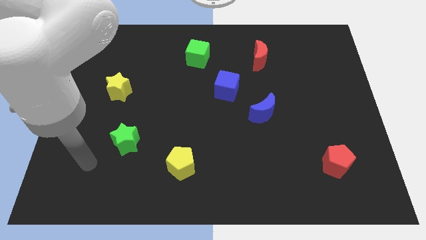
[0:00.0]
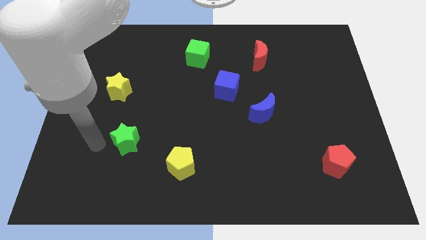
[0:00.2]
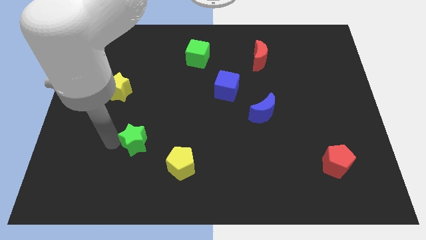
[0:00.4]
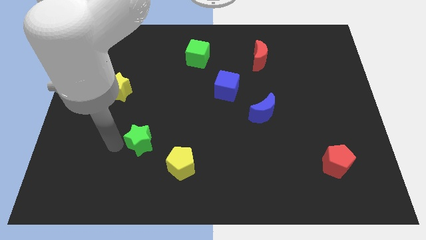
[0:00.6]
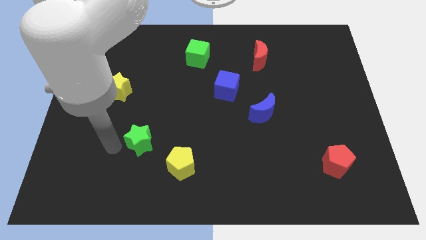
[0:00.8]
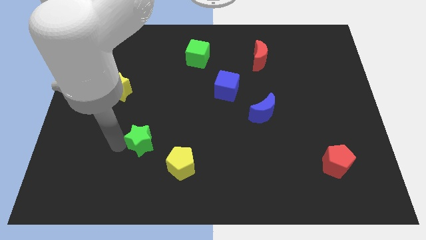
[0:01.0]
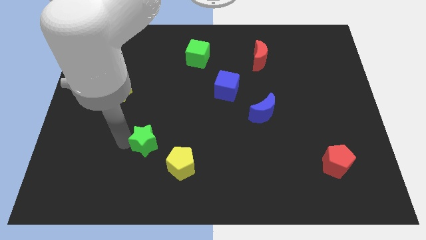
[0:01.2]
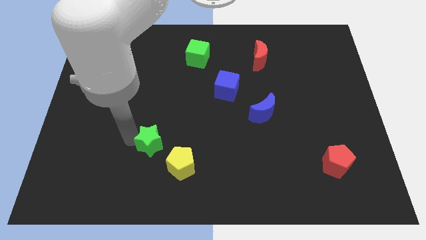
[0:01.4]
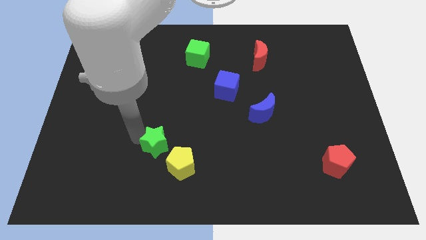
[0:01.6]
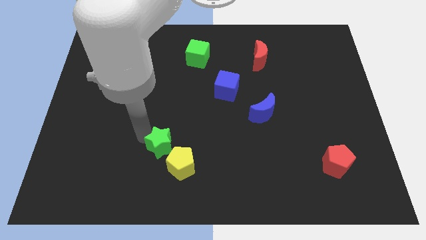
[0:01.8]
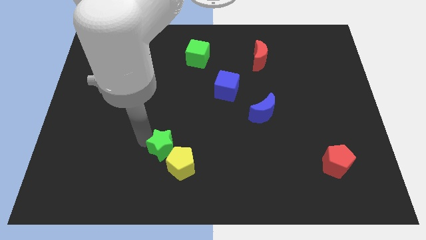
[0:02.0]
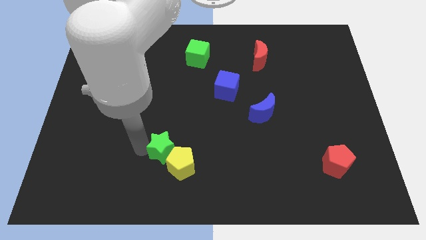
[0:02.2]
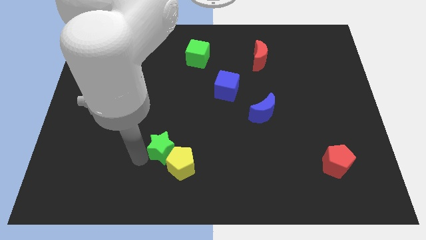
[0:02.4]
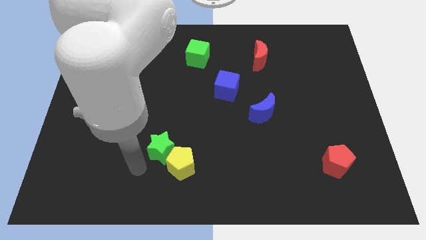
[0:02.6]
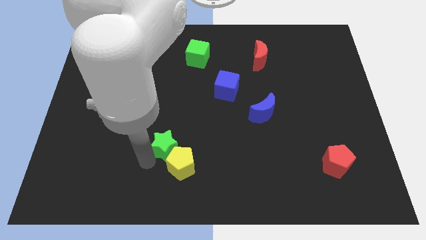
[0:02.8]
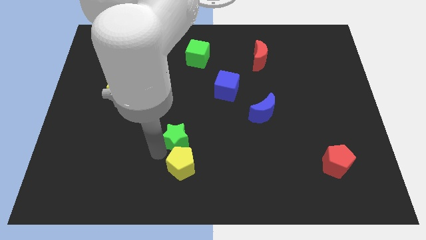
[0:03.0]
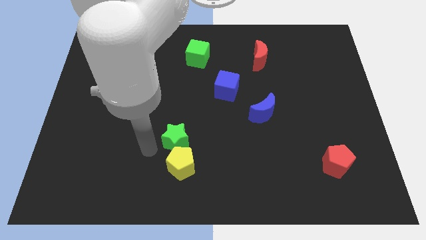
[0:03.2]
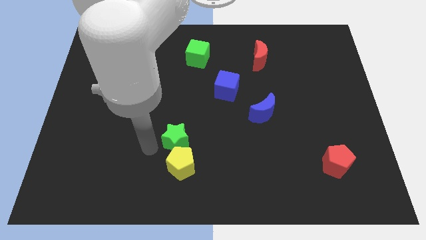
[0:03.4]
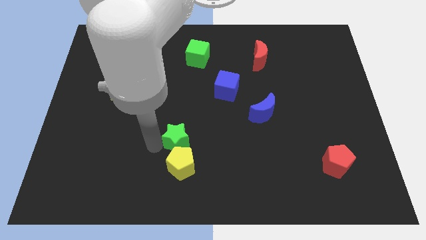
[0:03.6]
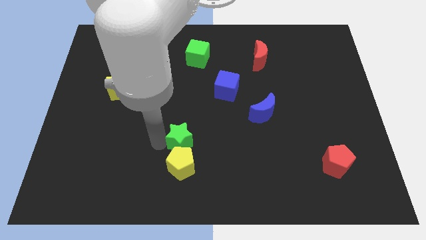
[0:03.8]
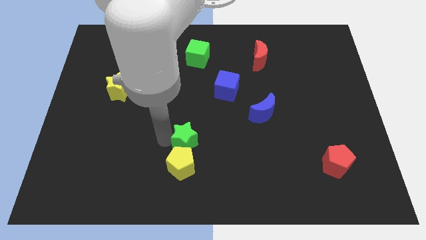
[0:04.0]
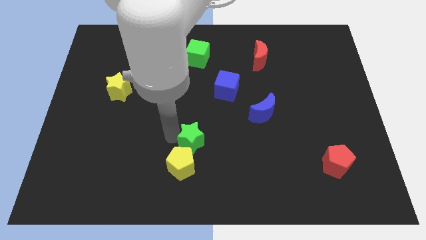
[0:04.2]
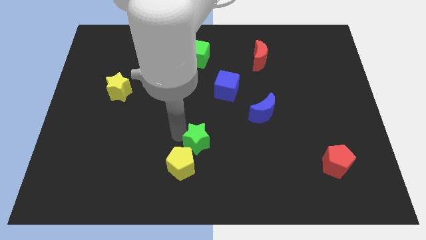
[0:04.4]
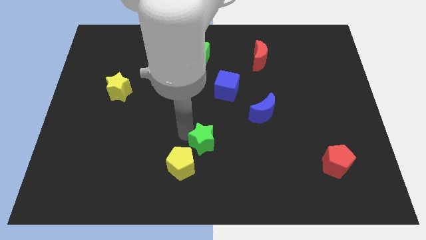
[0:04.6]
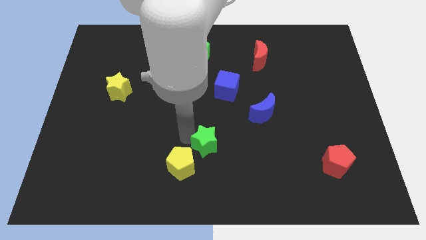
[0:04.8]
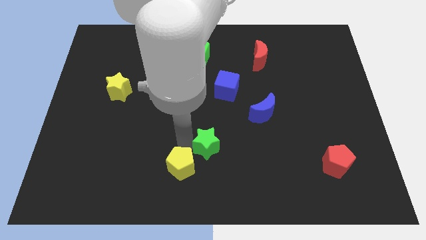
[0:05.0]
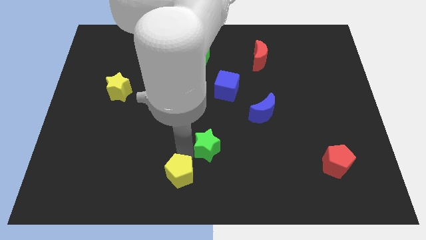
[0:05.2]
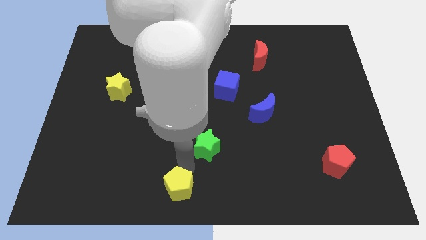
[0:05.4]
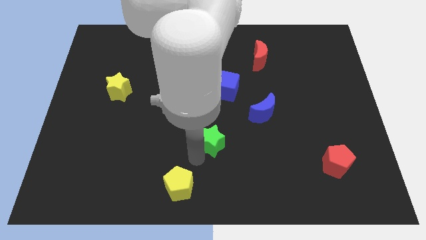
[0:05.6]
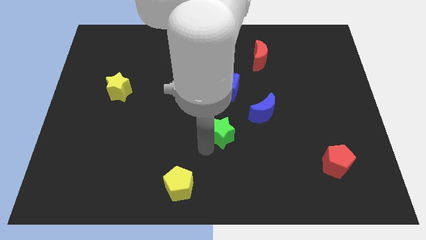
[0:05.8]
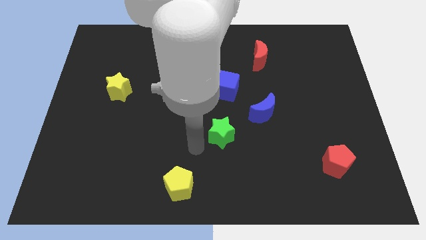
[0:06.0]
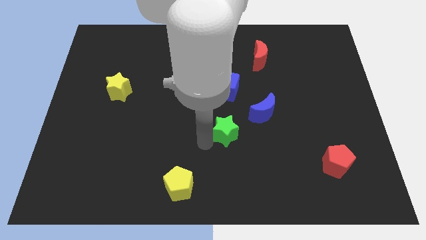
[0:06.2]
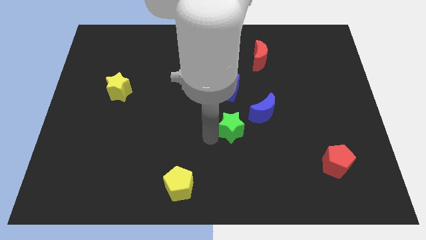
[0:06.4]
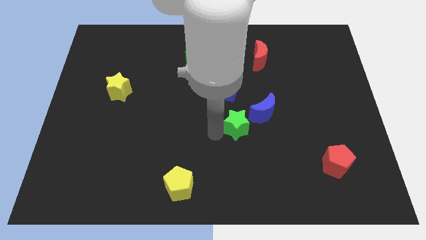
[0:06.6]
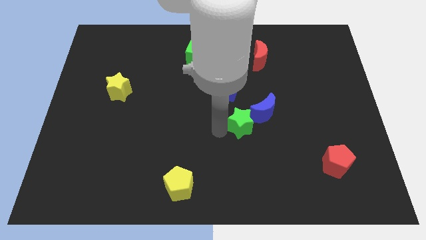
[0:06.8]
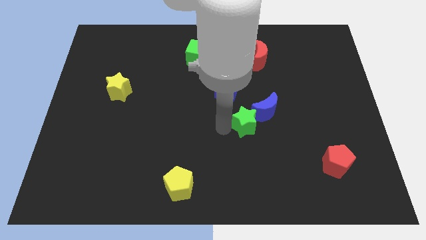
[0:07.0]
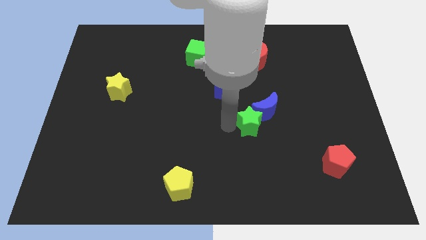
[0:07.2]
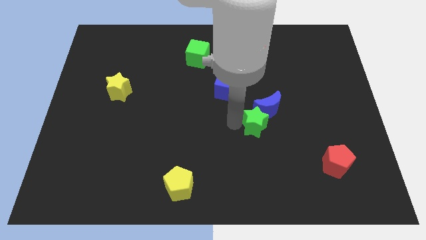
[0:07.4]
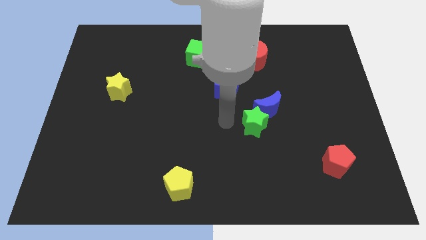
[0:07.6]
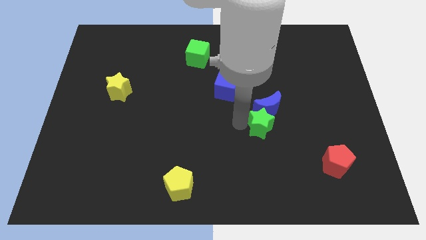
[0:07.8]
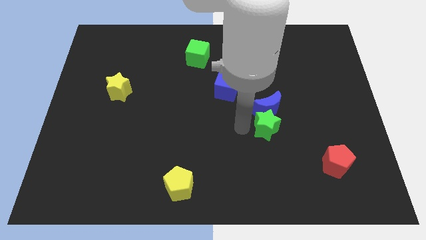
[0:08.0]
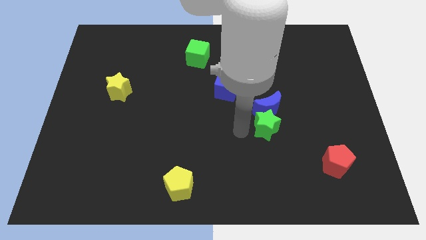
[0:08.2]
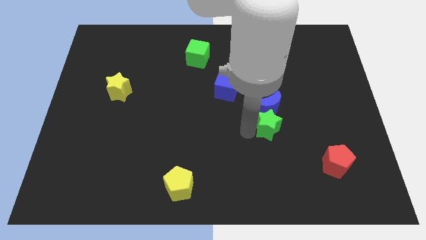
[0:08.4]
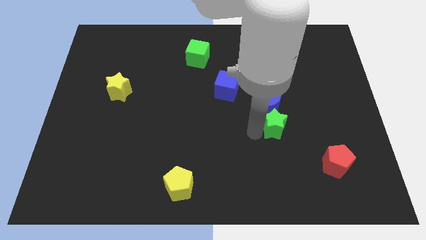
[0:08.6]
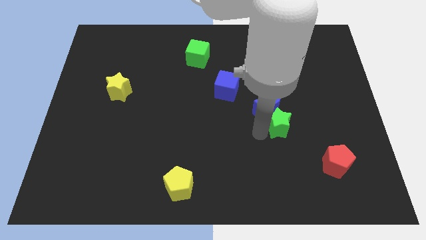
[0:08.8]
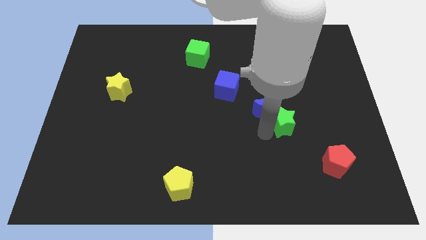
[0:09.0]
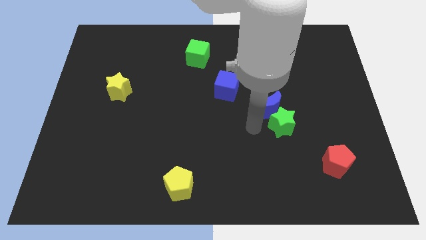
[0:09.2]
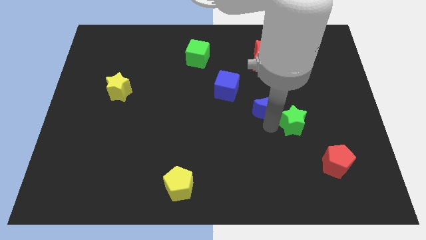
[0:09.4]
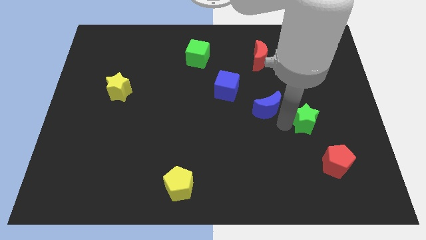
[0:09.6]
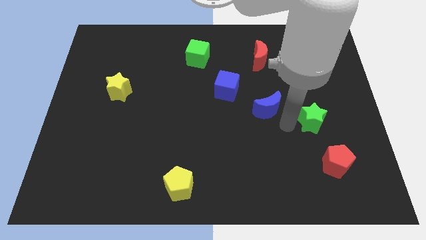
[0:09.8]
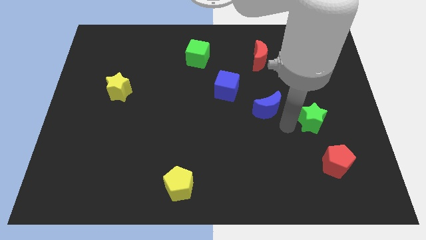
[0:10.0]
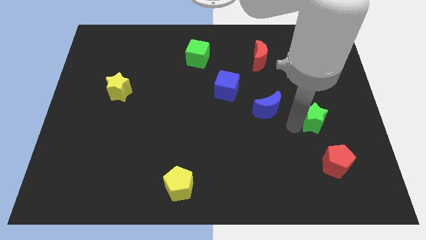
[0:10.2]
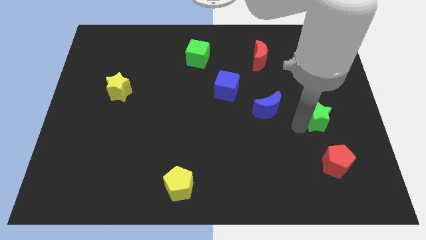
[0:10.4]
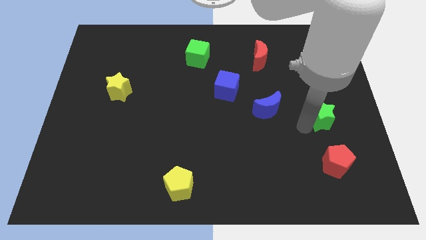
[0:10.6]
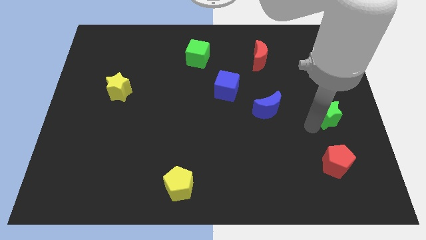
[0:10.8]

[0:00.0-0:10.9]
slide the green star to the right side

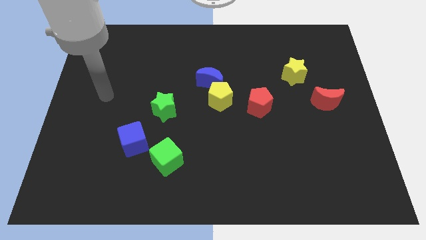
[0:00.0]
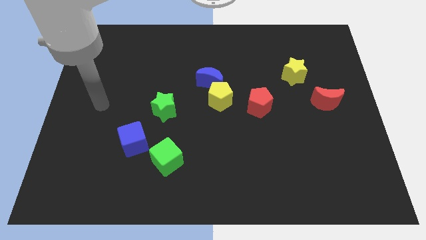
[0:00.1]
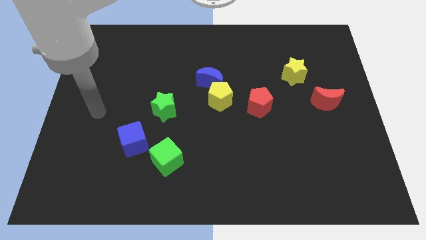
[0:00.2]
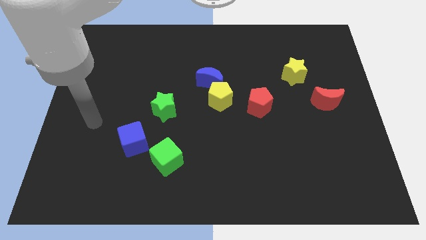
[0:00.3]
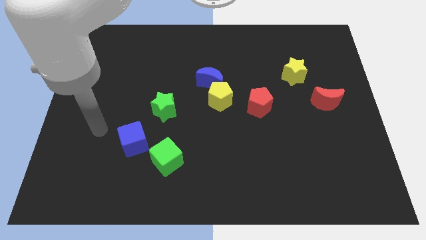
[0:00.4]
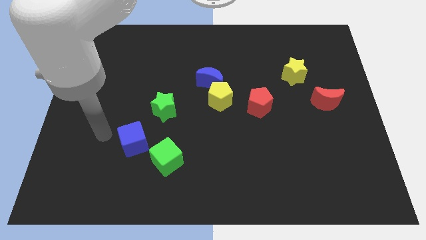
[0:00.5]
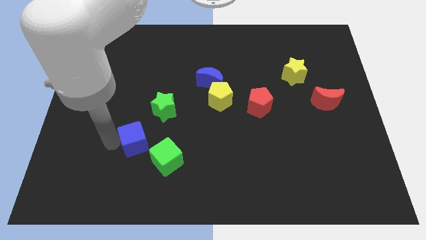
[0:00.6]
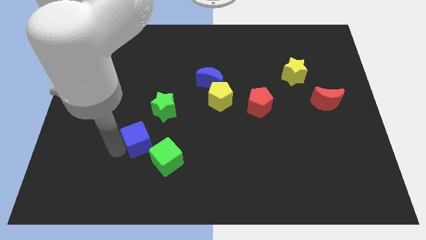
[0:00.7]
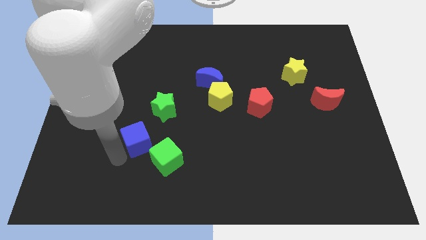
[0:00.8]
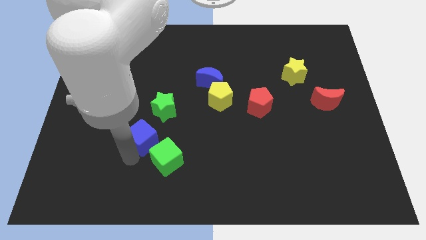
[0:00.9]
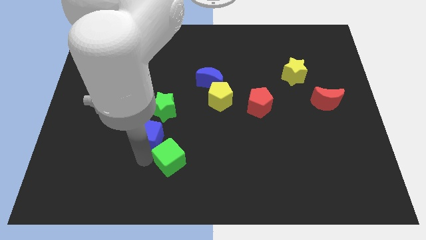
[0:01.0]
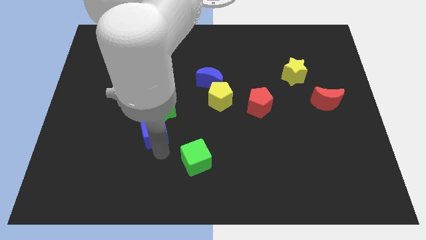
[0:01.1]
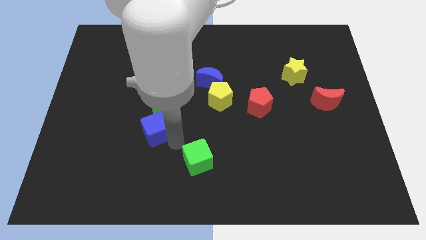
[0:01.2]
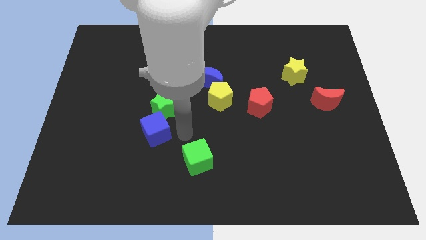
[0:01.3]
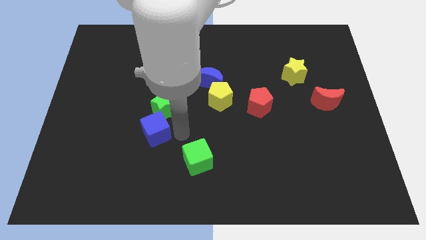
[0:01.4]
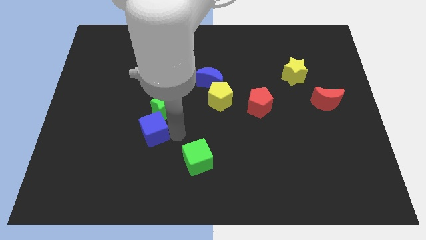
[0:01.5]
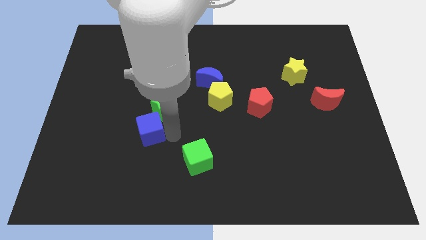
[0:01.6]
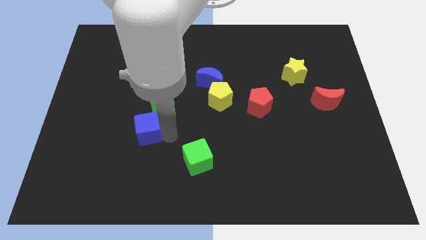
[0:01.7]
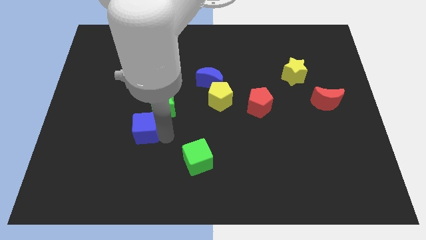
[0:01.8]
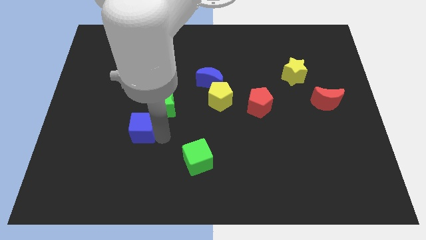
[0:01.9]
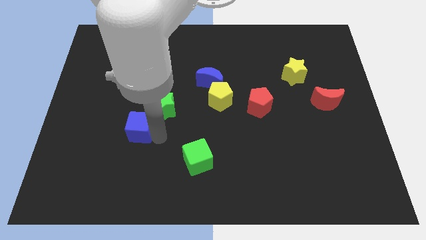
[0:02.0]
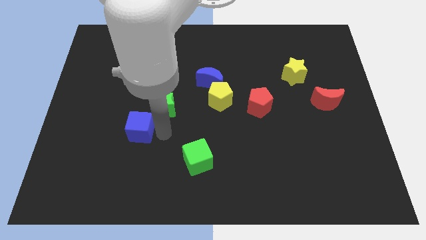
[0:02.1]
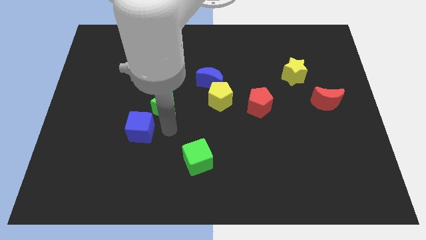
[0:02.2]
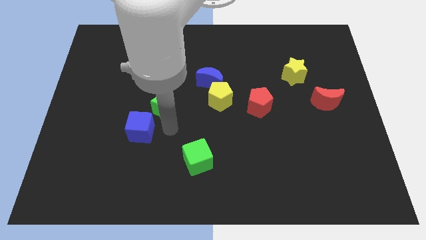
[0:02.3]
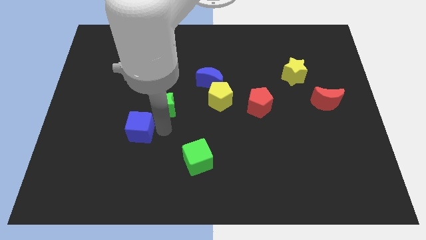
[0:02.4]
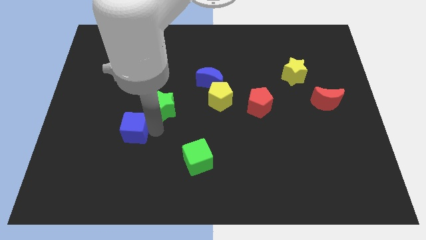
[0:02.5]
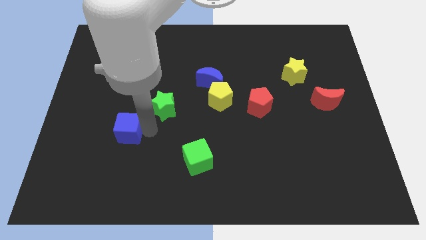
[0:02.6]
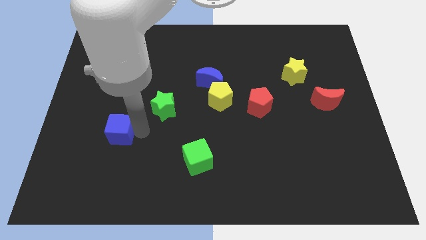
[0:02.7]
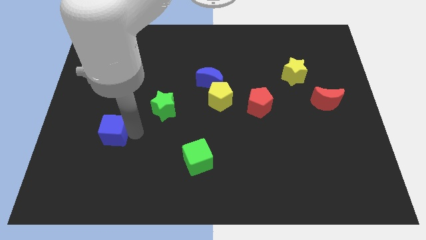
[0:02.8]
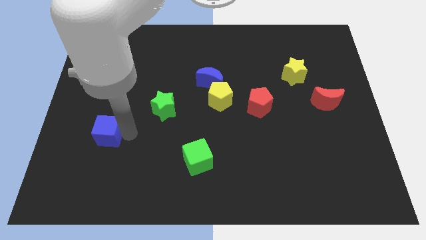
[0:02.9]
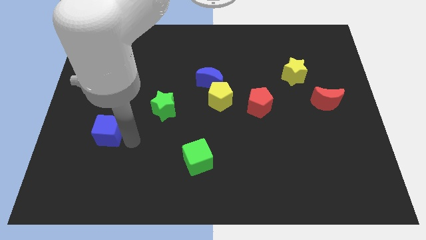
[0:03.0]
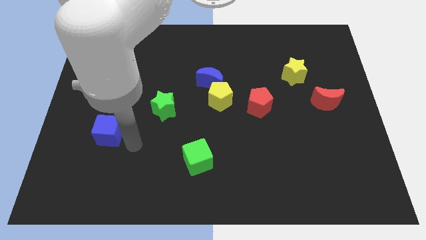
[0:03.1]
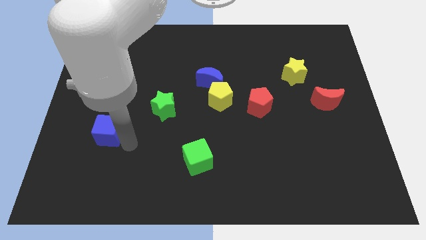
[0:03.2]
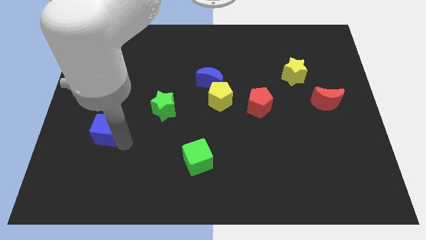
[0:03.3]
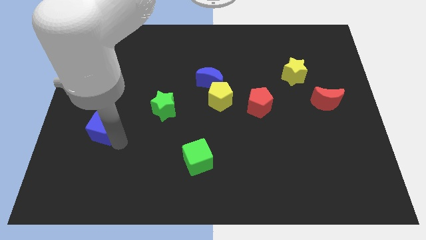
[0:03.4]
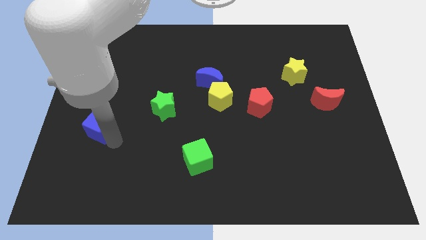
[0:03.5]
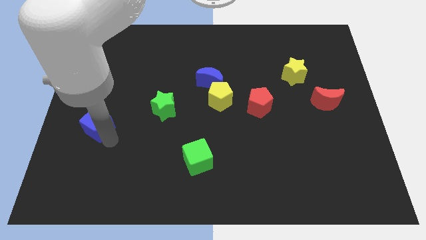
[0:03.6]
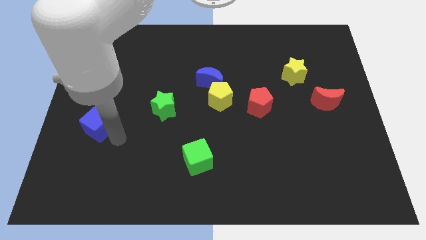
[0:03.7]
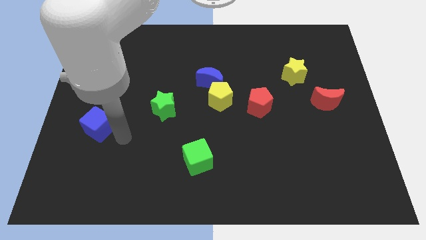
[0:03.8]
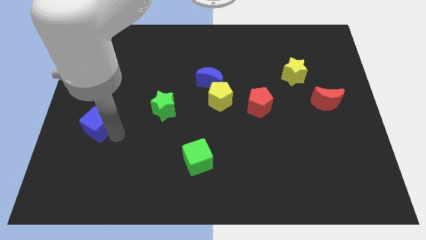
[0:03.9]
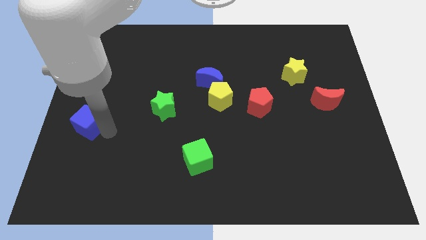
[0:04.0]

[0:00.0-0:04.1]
put the blue cube to the left side of the board
